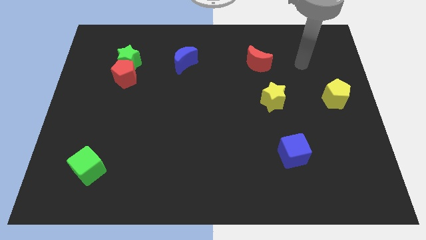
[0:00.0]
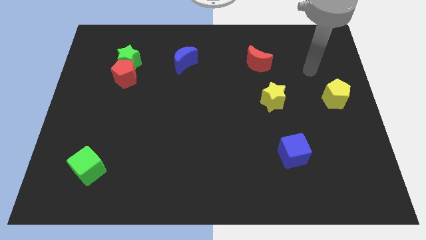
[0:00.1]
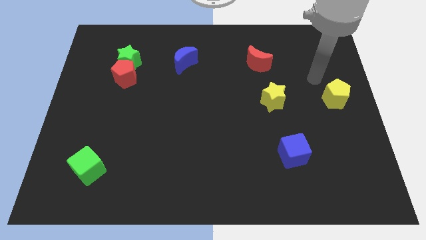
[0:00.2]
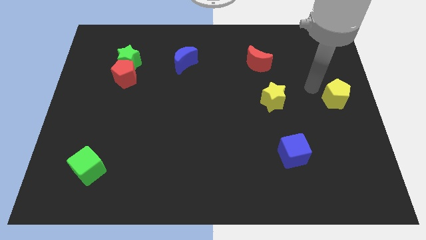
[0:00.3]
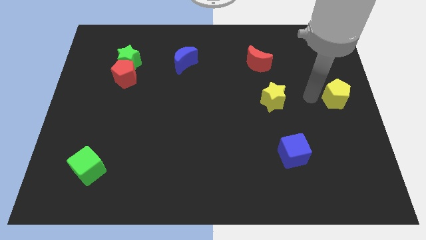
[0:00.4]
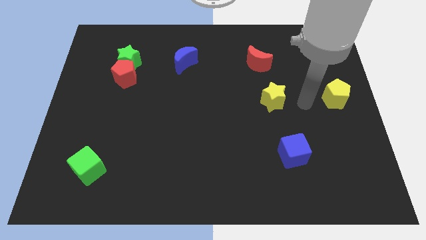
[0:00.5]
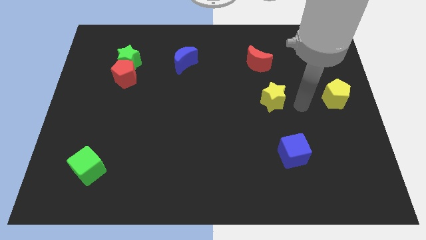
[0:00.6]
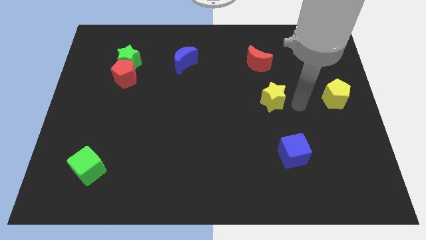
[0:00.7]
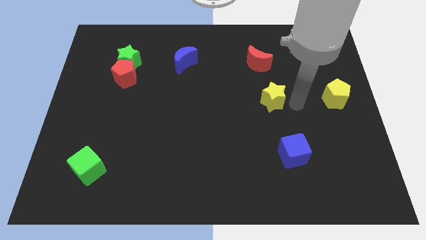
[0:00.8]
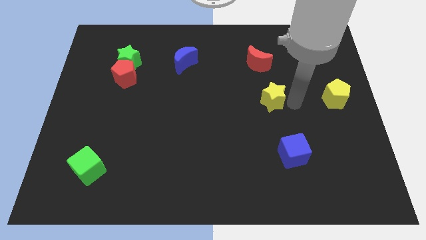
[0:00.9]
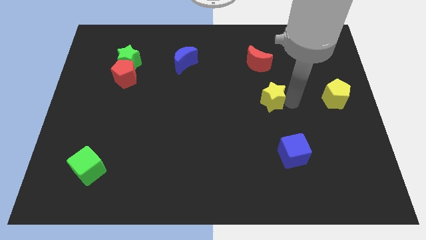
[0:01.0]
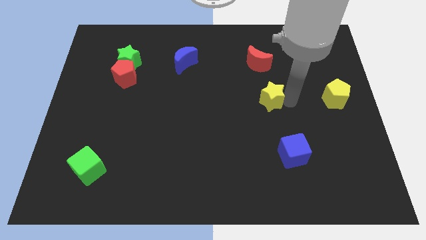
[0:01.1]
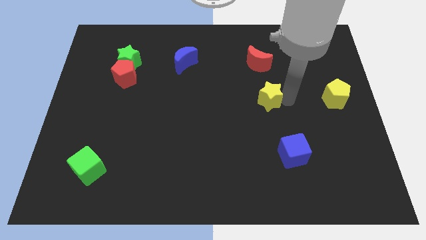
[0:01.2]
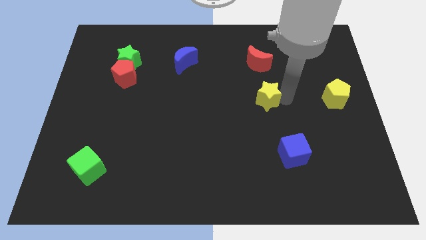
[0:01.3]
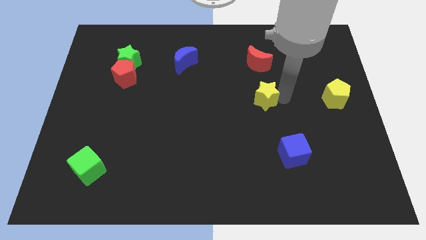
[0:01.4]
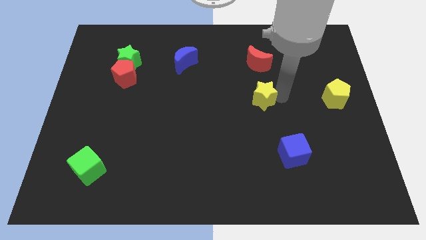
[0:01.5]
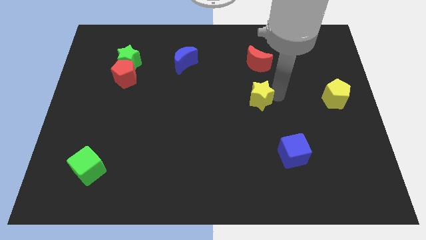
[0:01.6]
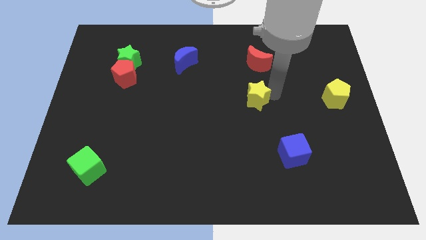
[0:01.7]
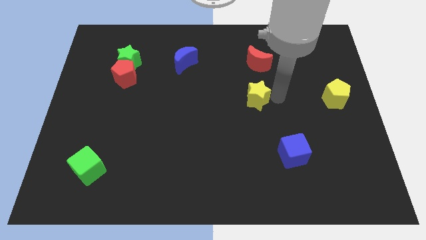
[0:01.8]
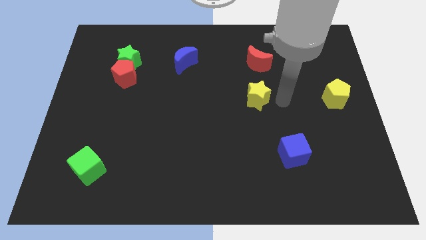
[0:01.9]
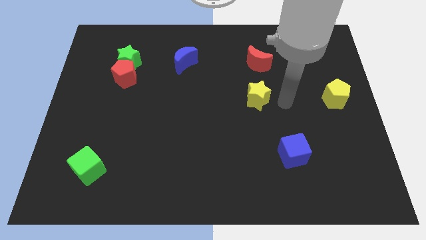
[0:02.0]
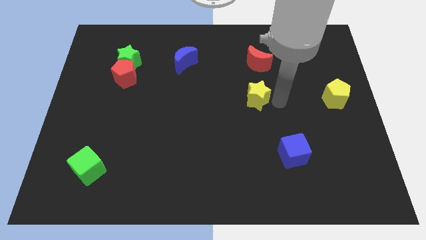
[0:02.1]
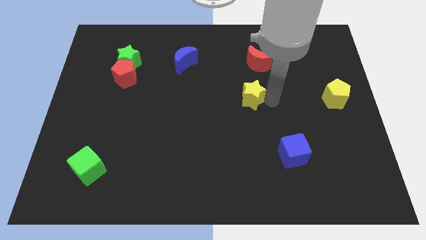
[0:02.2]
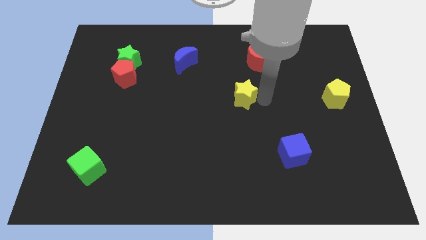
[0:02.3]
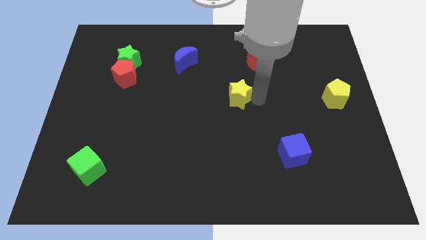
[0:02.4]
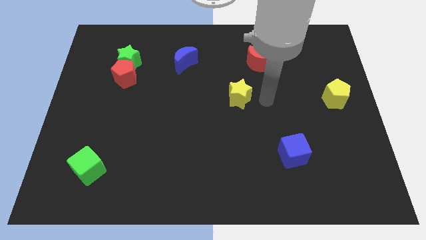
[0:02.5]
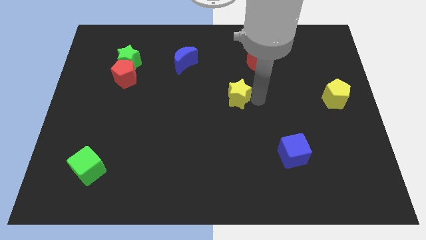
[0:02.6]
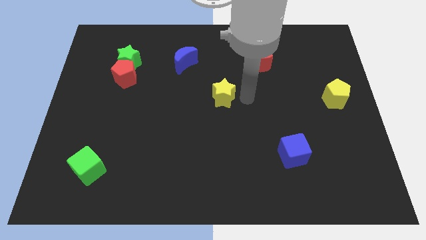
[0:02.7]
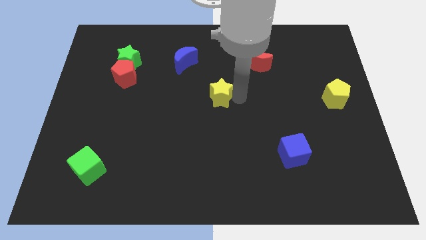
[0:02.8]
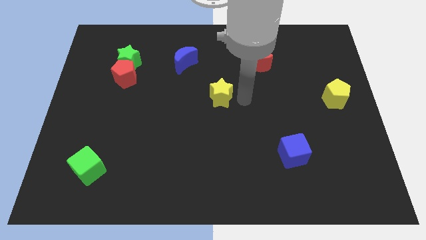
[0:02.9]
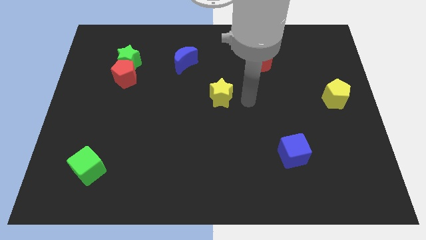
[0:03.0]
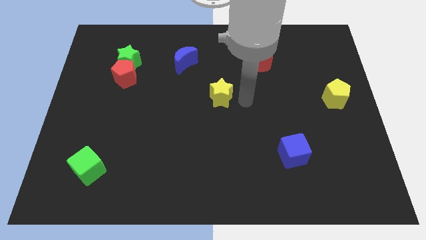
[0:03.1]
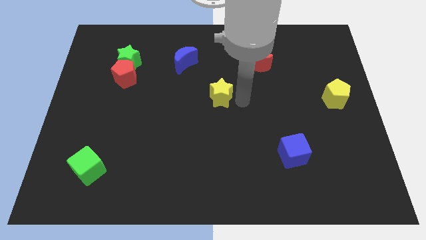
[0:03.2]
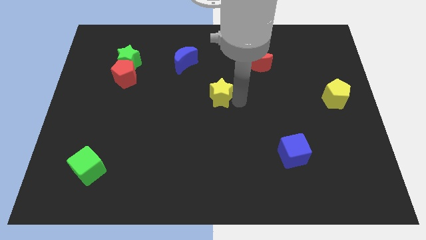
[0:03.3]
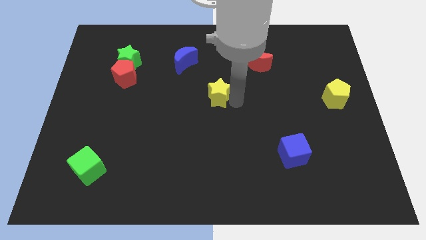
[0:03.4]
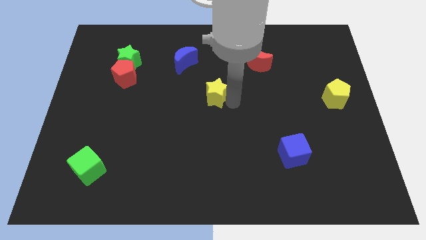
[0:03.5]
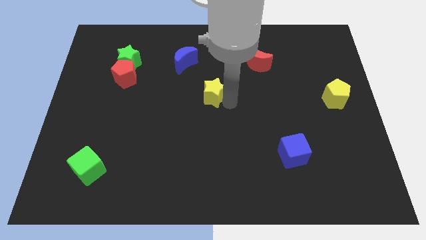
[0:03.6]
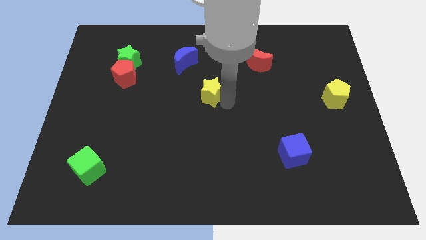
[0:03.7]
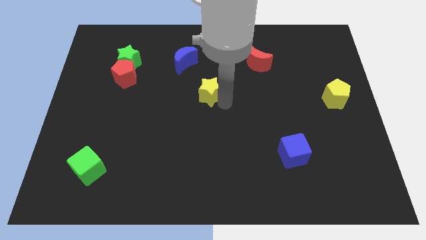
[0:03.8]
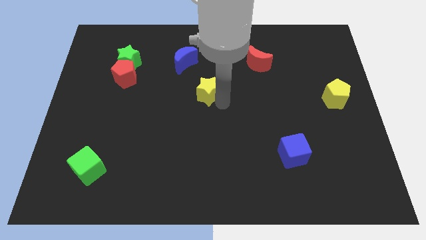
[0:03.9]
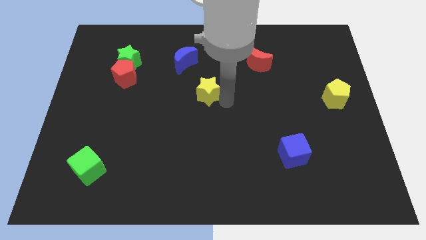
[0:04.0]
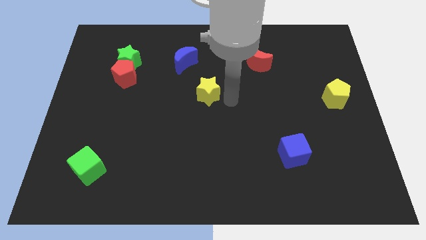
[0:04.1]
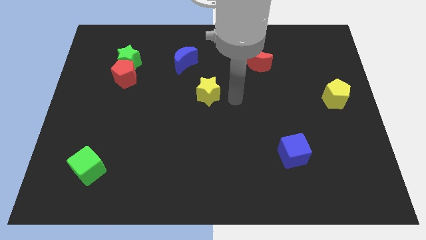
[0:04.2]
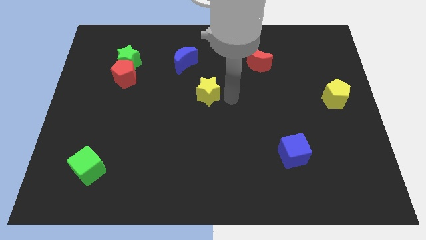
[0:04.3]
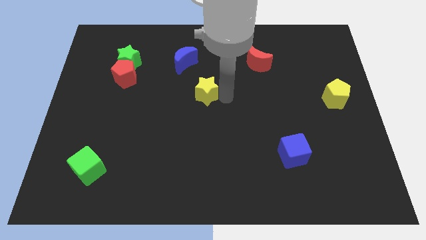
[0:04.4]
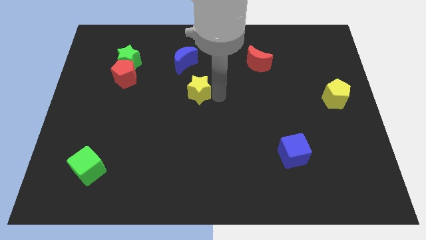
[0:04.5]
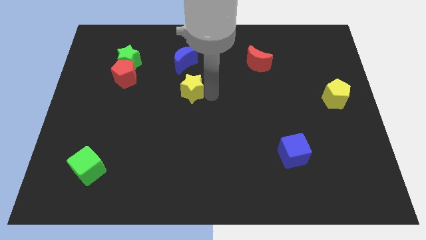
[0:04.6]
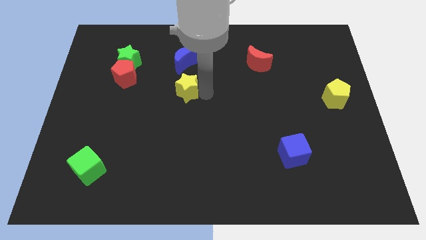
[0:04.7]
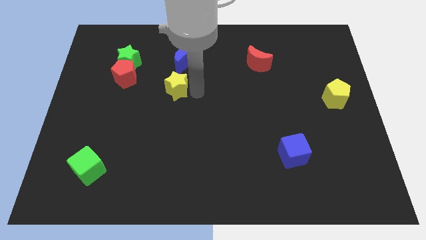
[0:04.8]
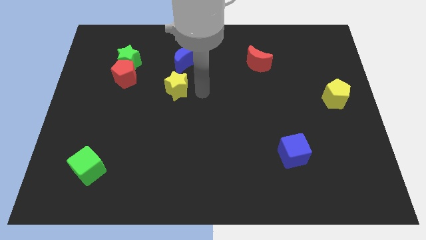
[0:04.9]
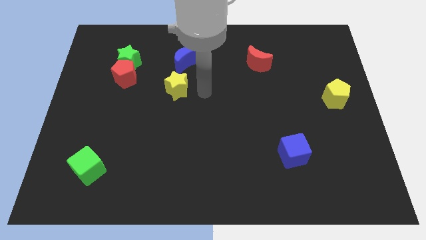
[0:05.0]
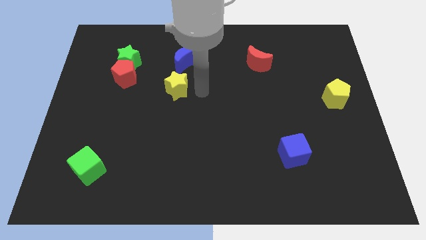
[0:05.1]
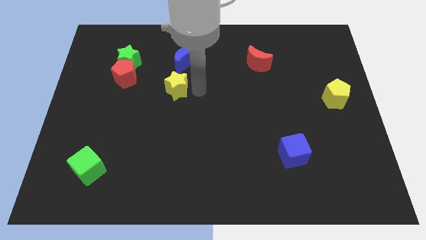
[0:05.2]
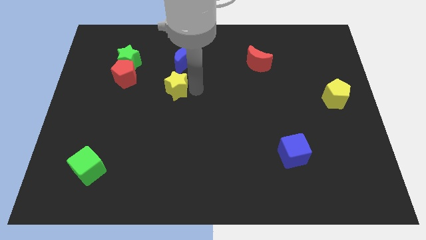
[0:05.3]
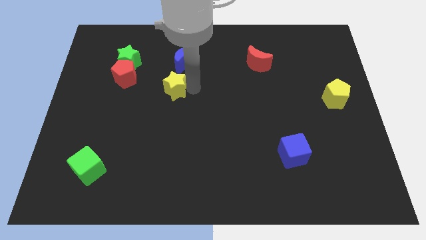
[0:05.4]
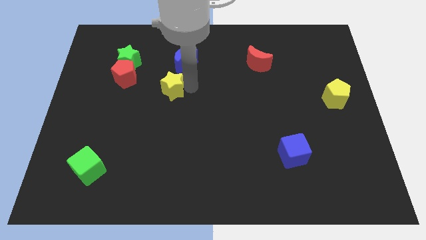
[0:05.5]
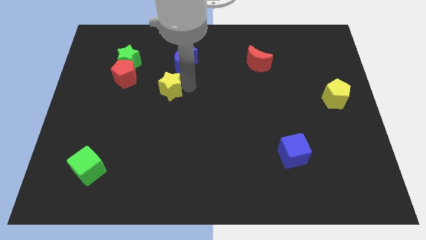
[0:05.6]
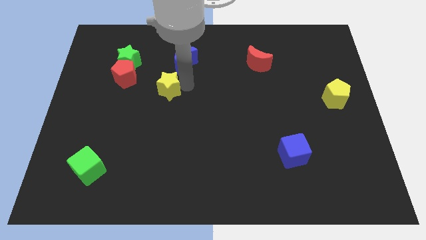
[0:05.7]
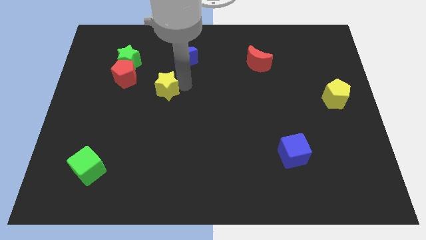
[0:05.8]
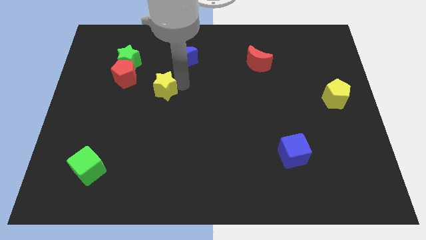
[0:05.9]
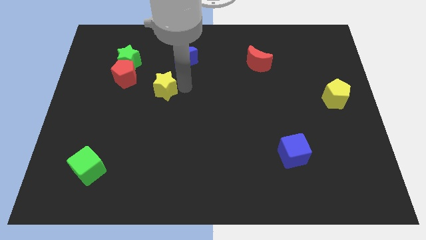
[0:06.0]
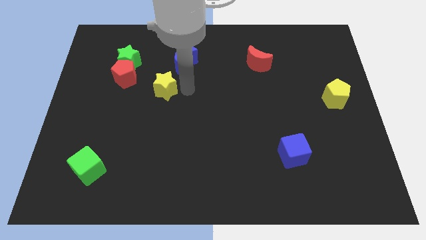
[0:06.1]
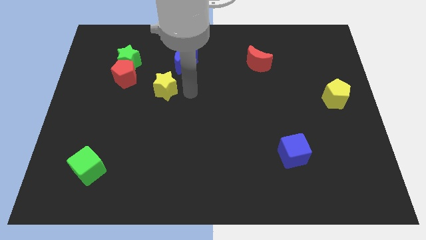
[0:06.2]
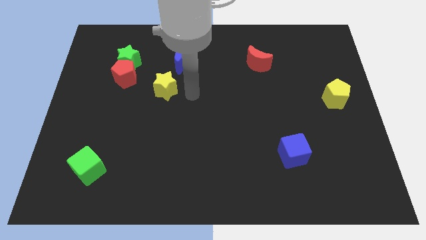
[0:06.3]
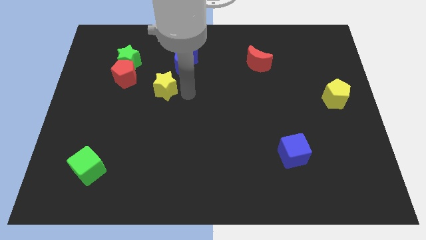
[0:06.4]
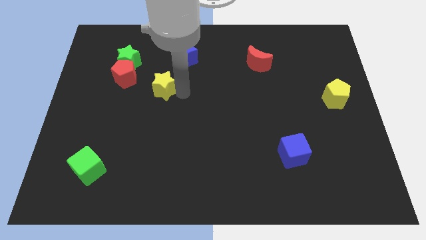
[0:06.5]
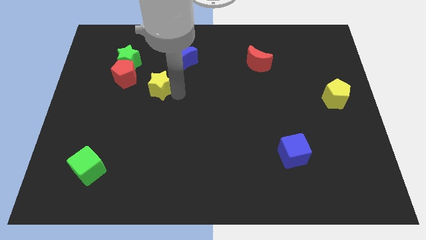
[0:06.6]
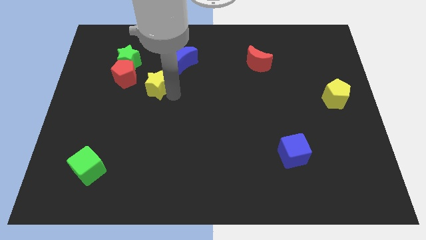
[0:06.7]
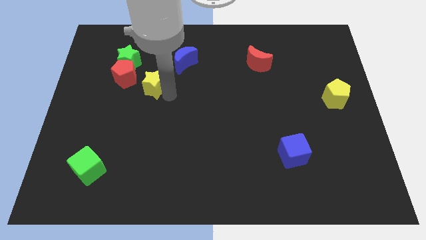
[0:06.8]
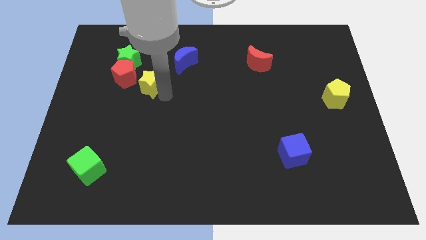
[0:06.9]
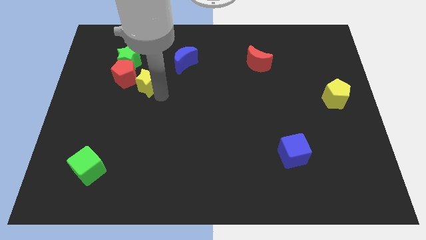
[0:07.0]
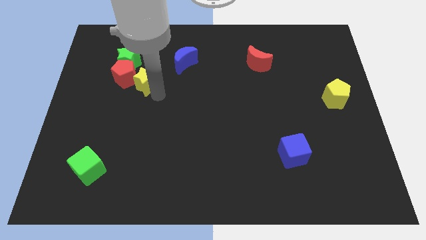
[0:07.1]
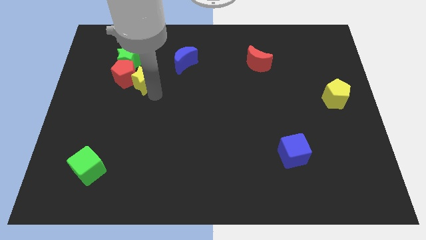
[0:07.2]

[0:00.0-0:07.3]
put the yellow star towards the red pentagon
